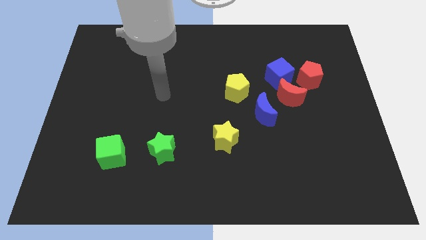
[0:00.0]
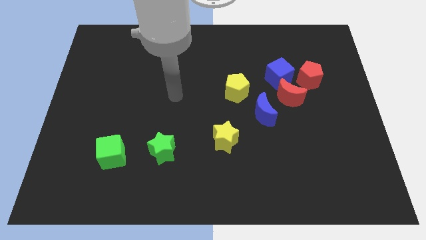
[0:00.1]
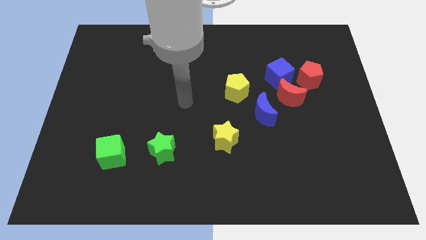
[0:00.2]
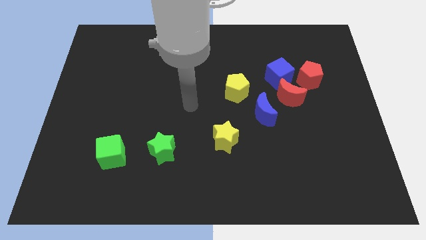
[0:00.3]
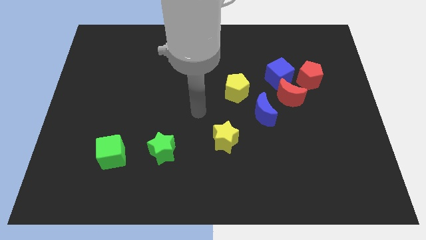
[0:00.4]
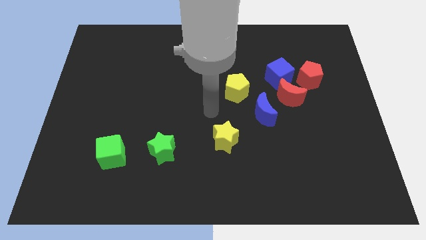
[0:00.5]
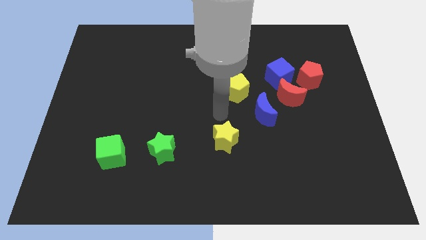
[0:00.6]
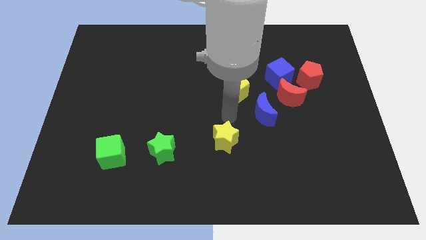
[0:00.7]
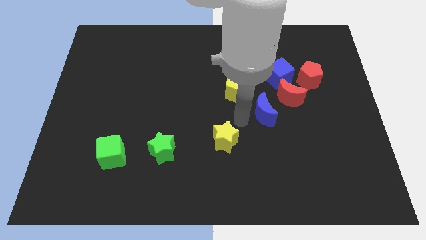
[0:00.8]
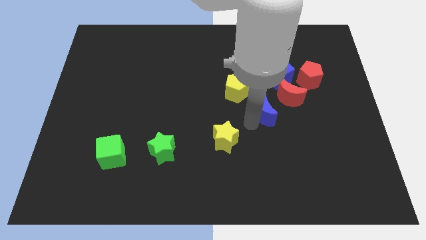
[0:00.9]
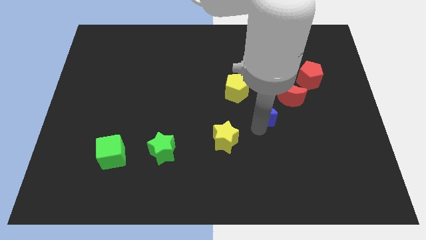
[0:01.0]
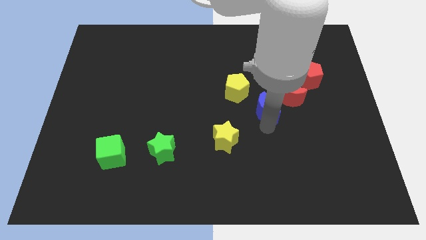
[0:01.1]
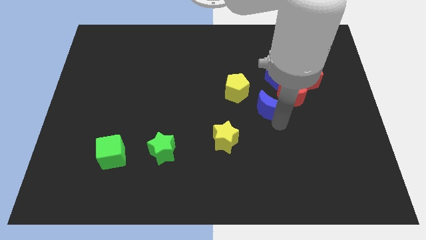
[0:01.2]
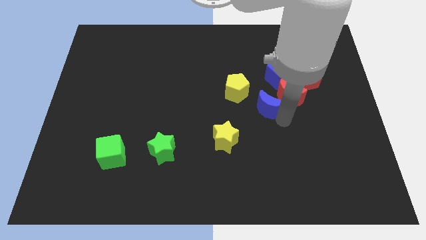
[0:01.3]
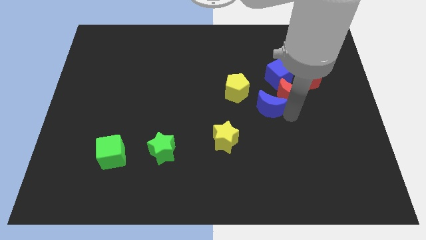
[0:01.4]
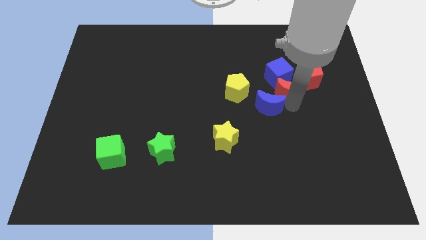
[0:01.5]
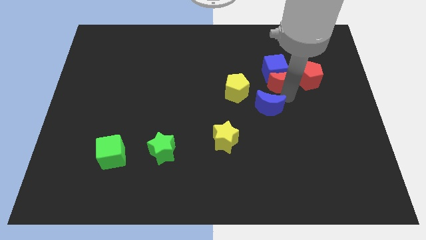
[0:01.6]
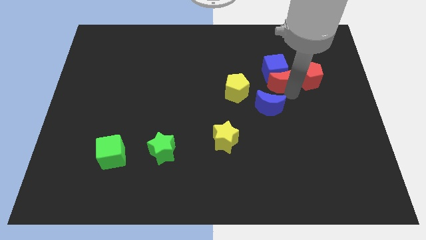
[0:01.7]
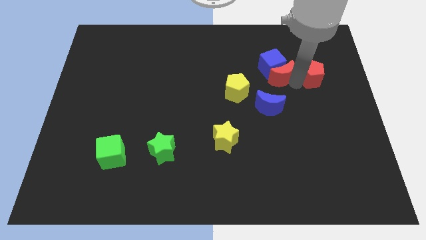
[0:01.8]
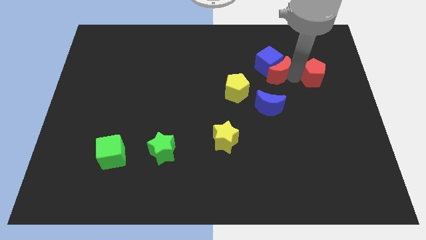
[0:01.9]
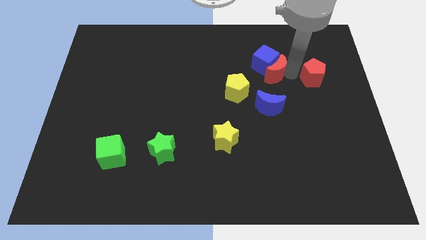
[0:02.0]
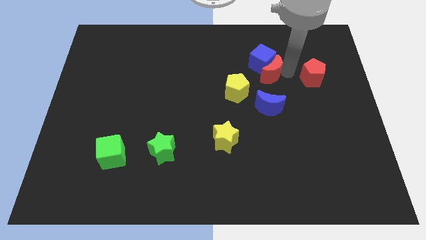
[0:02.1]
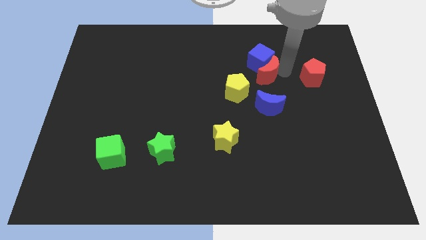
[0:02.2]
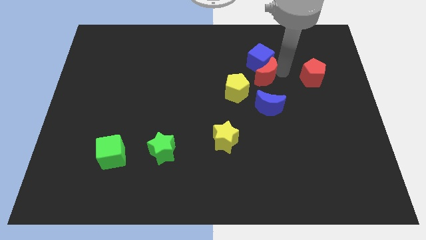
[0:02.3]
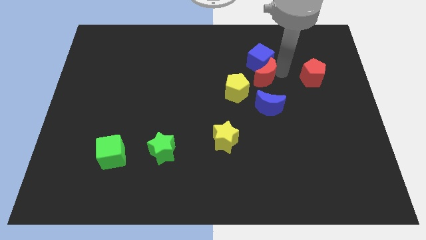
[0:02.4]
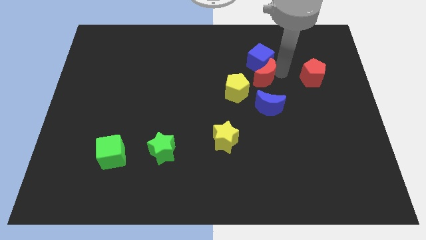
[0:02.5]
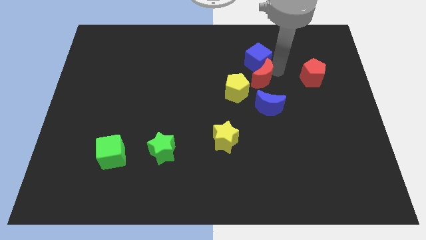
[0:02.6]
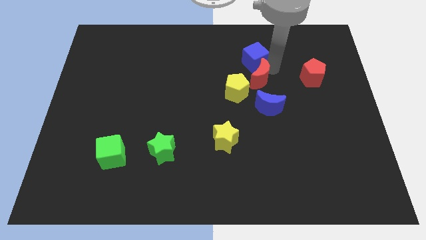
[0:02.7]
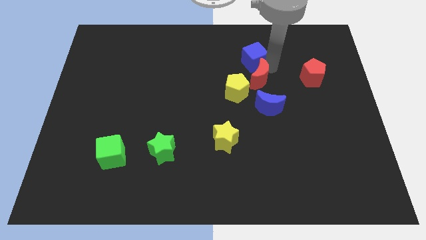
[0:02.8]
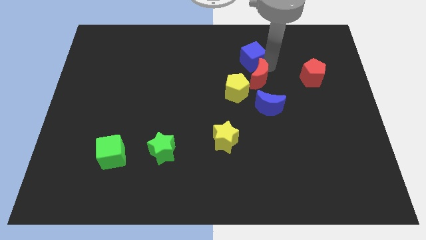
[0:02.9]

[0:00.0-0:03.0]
separate the blue cube from the red moon and red pentagon

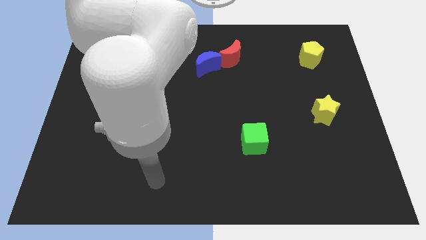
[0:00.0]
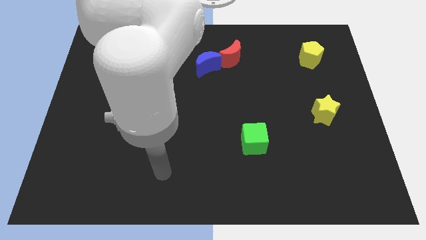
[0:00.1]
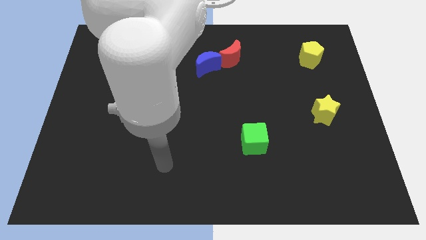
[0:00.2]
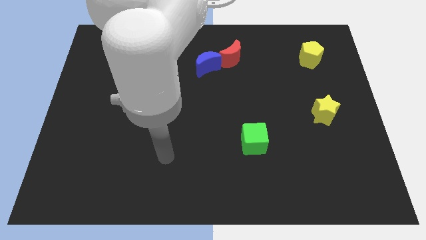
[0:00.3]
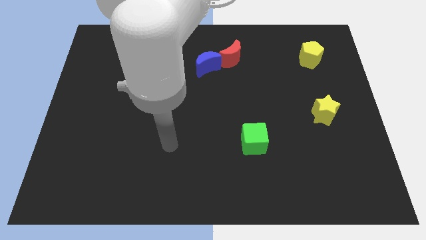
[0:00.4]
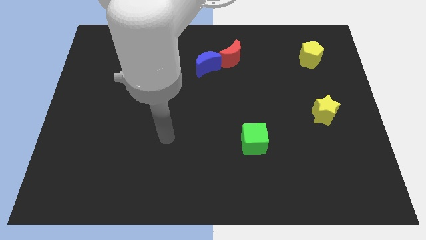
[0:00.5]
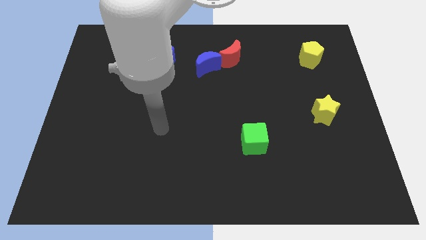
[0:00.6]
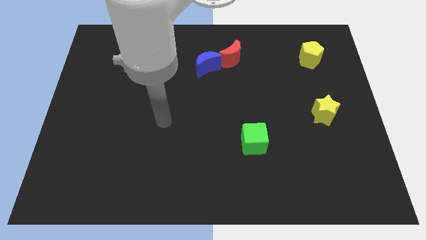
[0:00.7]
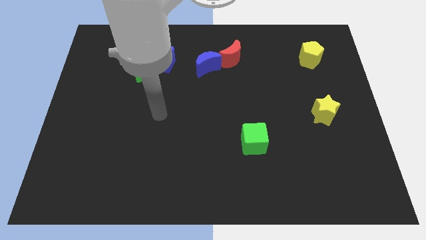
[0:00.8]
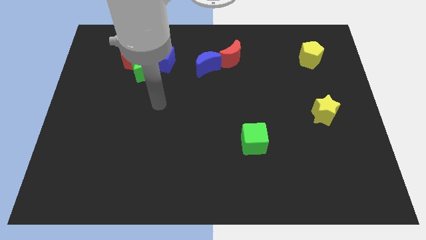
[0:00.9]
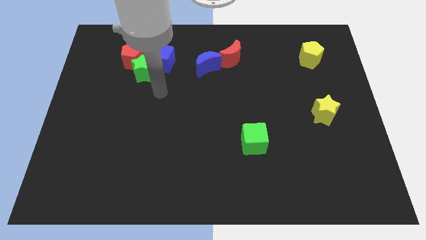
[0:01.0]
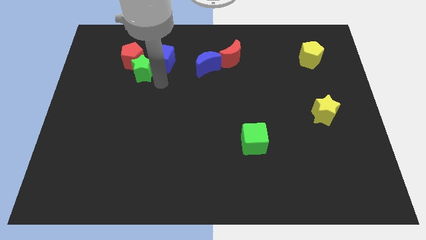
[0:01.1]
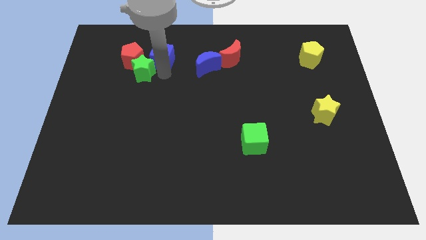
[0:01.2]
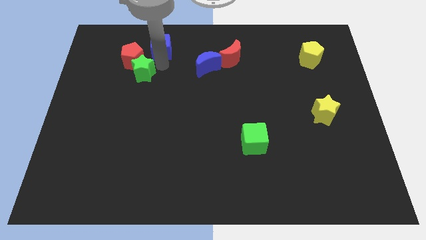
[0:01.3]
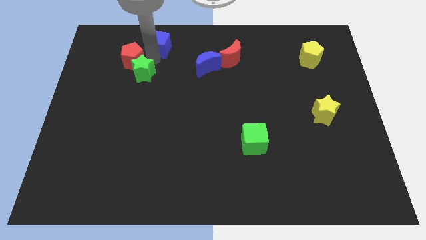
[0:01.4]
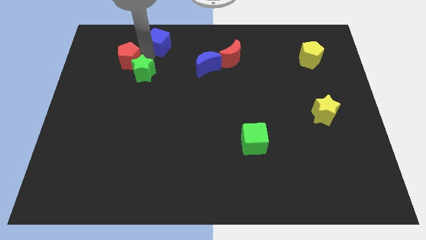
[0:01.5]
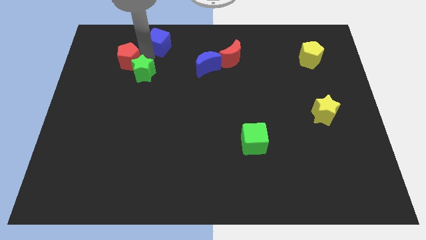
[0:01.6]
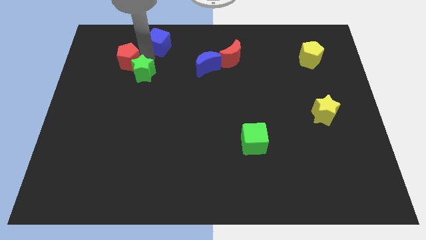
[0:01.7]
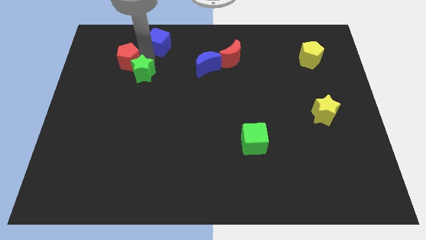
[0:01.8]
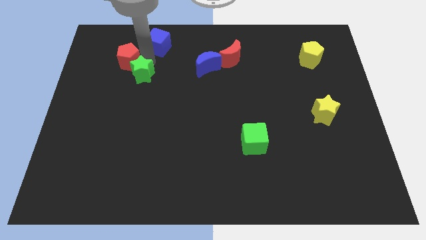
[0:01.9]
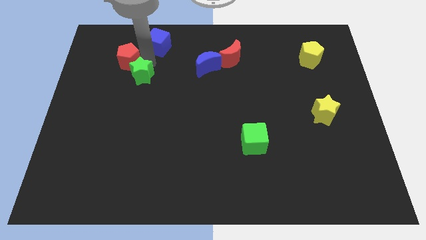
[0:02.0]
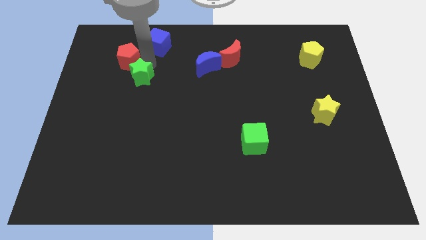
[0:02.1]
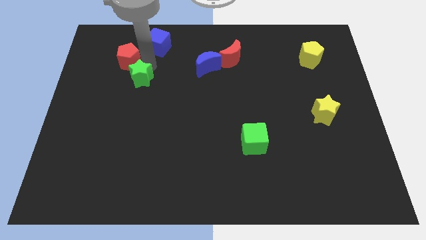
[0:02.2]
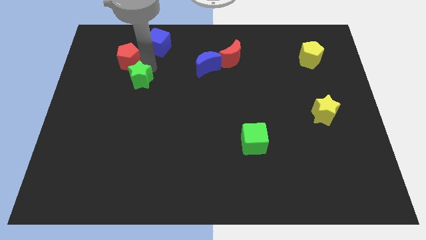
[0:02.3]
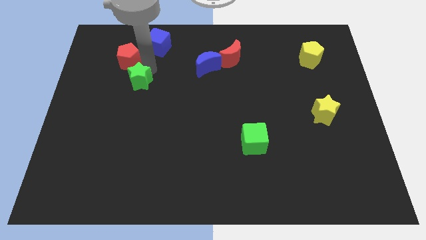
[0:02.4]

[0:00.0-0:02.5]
move the green star away from the red pentagon and blue cube

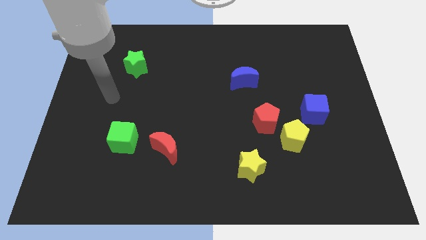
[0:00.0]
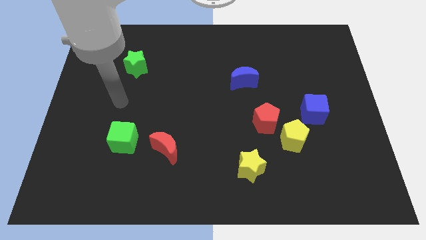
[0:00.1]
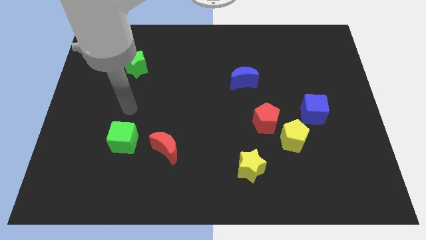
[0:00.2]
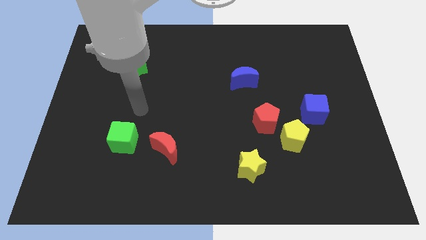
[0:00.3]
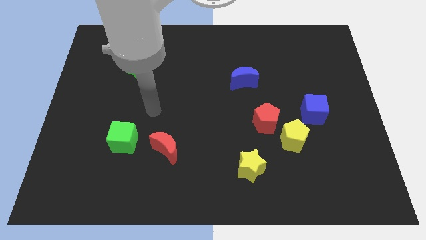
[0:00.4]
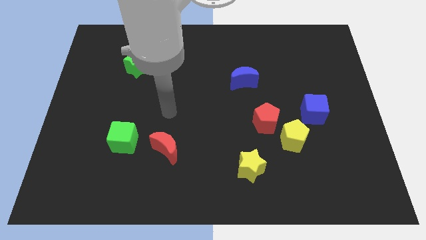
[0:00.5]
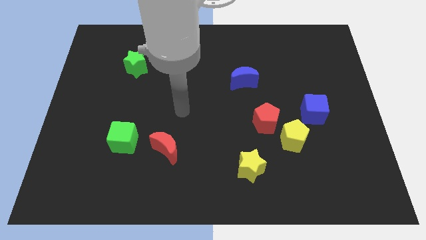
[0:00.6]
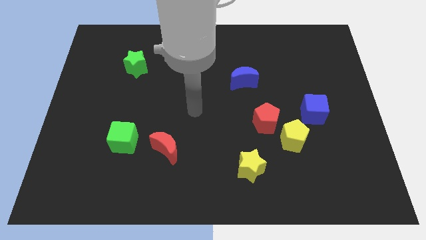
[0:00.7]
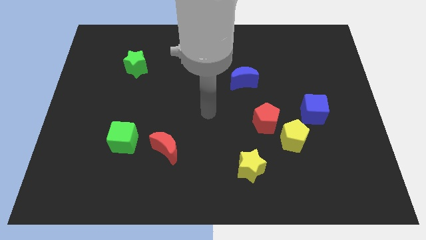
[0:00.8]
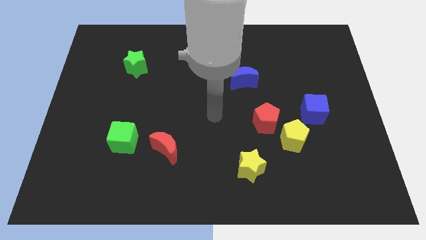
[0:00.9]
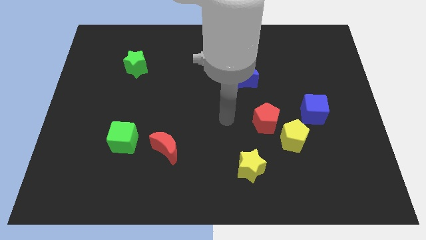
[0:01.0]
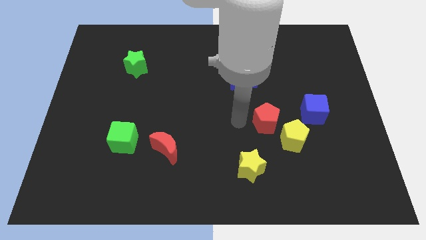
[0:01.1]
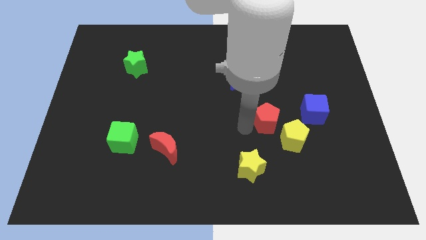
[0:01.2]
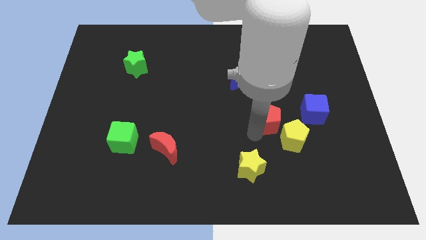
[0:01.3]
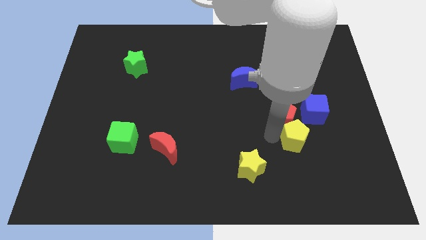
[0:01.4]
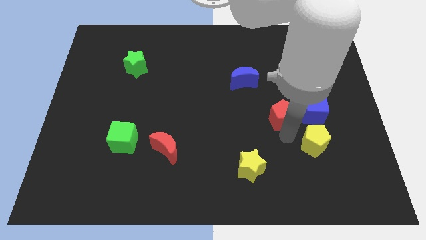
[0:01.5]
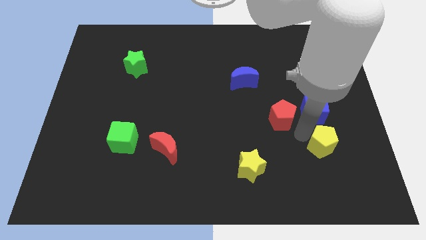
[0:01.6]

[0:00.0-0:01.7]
separate the red pentagon from the yellow pentagon

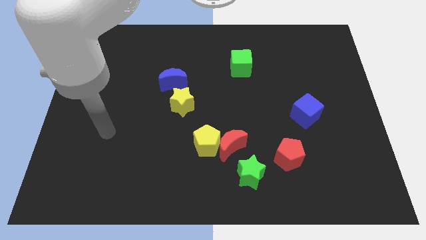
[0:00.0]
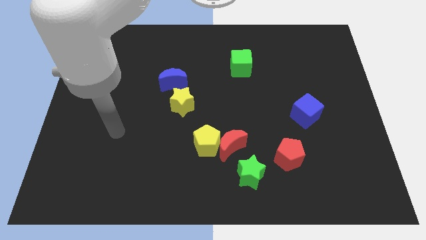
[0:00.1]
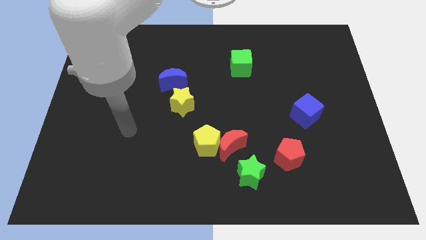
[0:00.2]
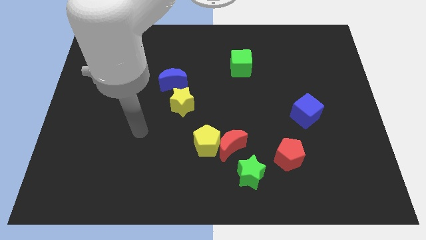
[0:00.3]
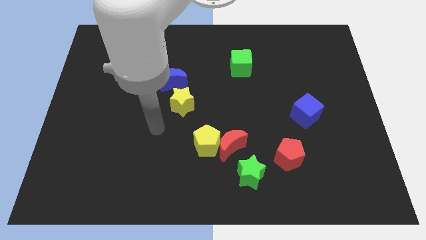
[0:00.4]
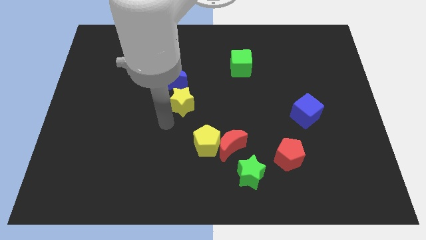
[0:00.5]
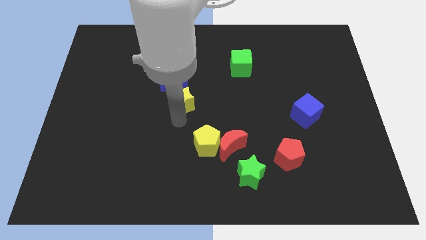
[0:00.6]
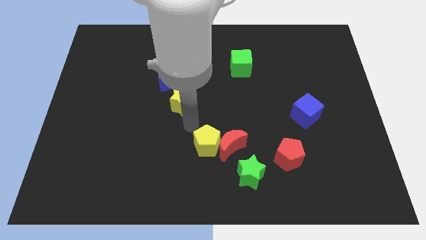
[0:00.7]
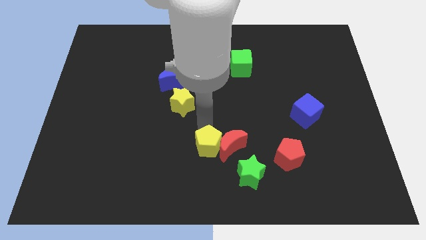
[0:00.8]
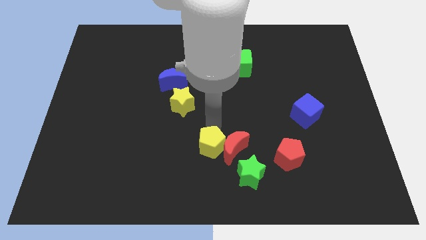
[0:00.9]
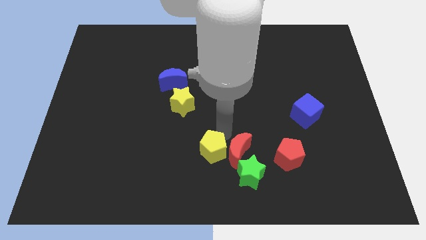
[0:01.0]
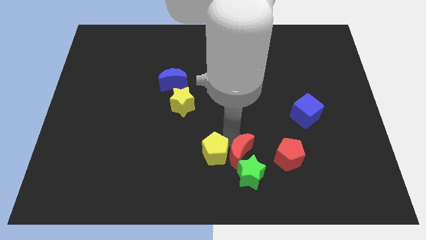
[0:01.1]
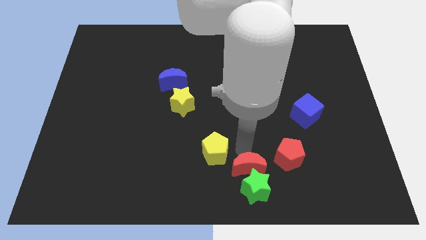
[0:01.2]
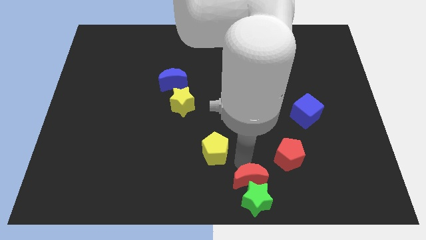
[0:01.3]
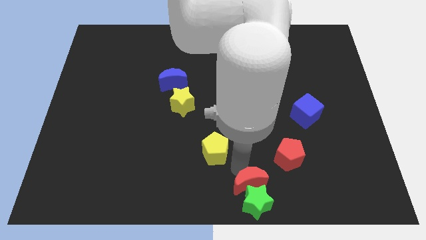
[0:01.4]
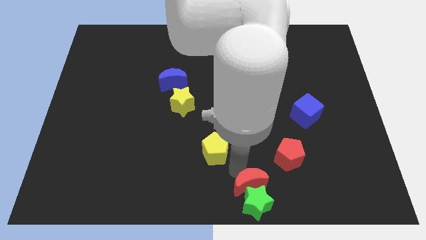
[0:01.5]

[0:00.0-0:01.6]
move the yellow pentagon away from the red moon

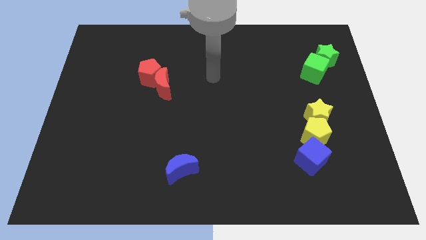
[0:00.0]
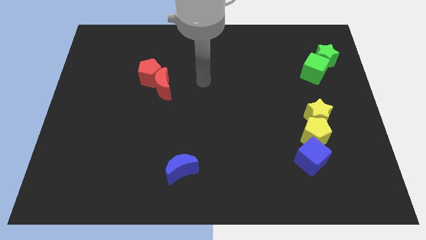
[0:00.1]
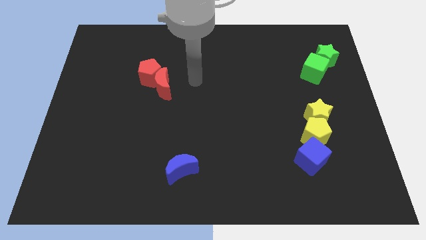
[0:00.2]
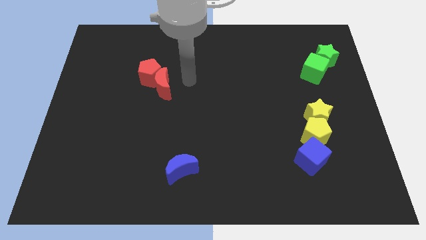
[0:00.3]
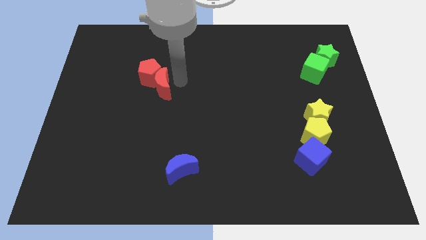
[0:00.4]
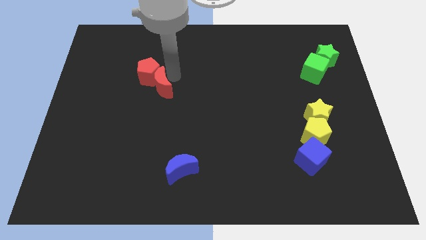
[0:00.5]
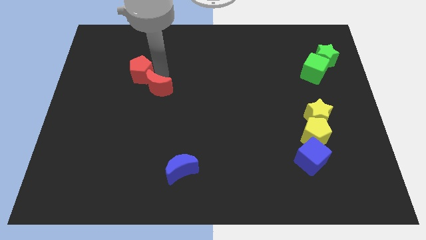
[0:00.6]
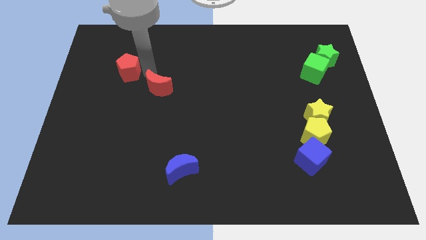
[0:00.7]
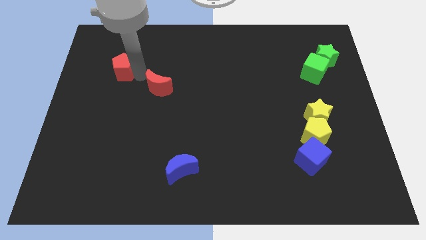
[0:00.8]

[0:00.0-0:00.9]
separate the red moon from the red pentagon
